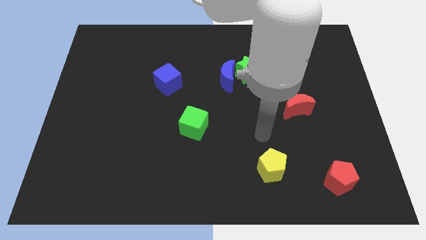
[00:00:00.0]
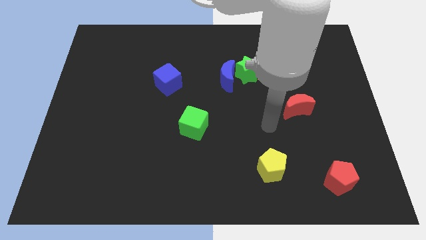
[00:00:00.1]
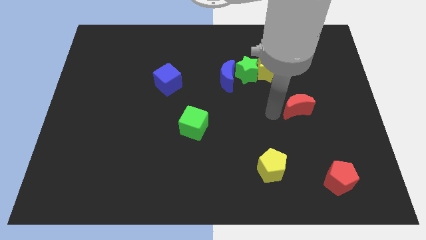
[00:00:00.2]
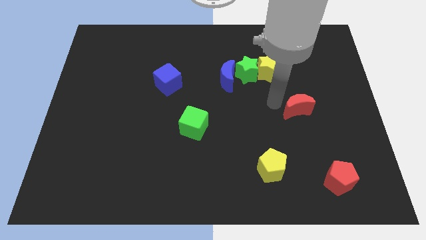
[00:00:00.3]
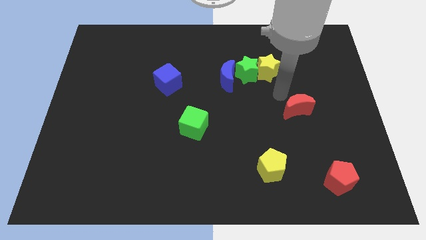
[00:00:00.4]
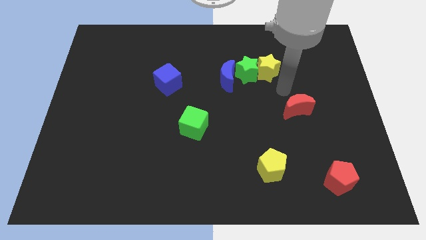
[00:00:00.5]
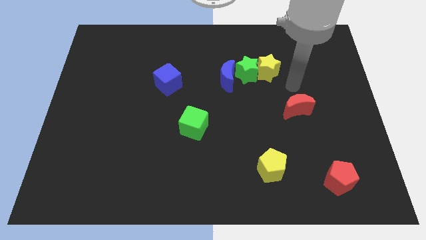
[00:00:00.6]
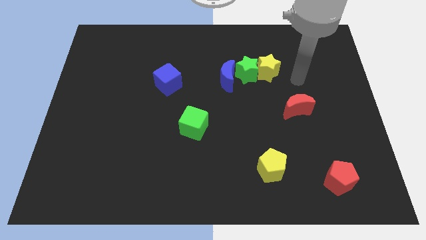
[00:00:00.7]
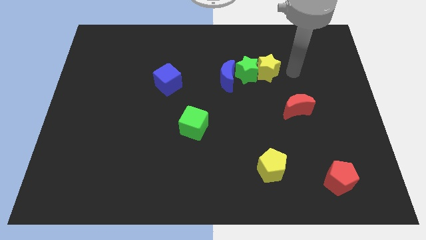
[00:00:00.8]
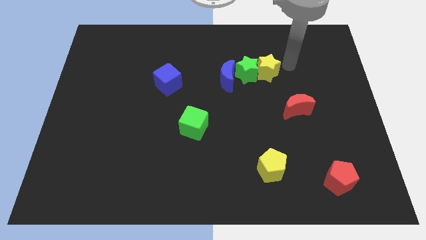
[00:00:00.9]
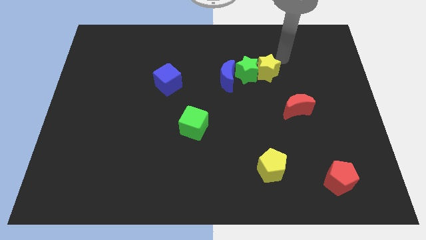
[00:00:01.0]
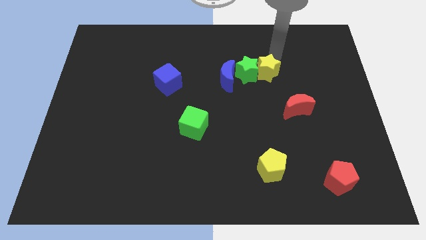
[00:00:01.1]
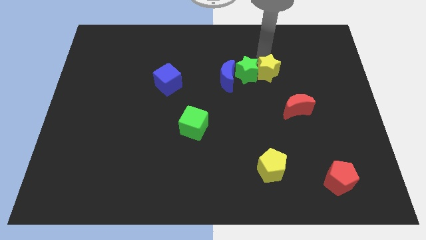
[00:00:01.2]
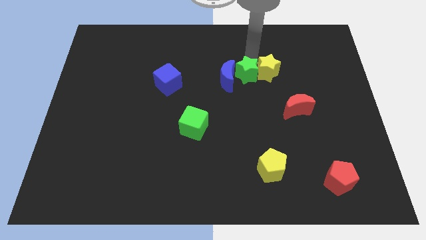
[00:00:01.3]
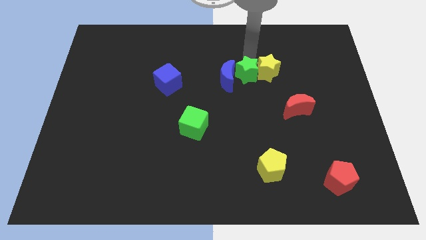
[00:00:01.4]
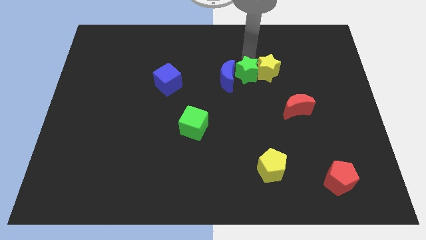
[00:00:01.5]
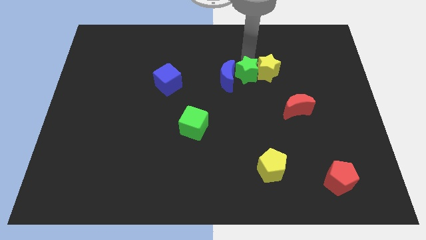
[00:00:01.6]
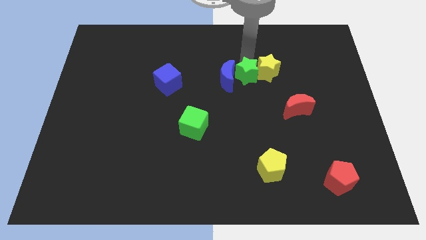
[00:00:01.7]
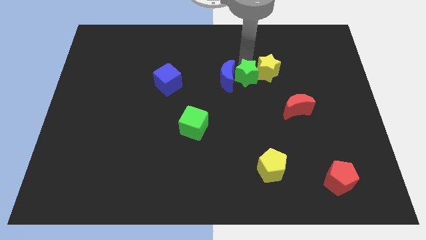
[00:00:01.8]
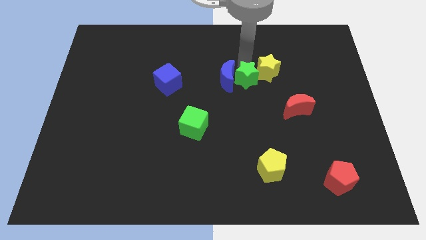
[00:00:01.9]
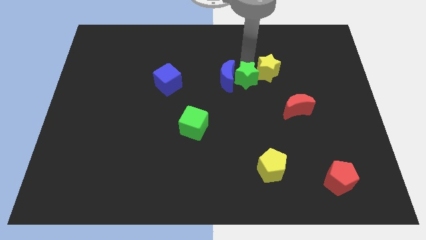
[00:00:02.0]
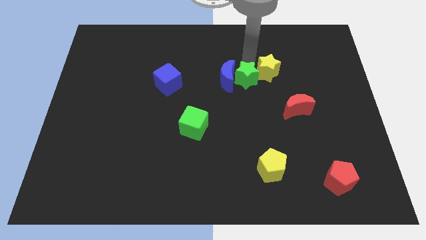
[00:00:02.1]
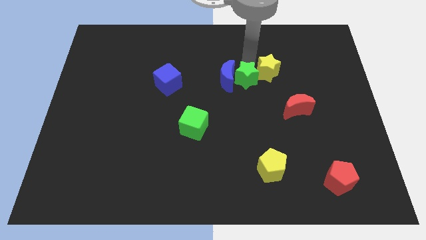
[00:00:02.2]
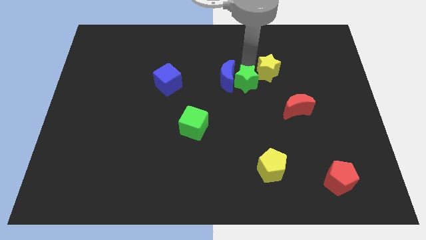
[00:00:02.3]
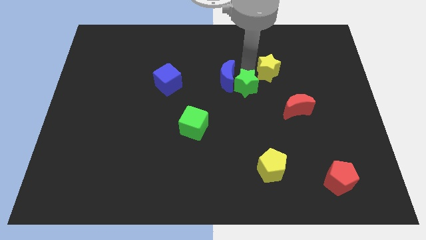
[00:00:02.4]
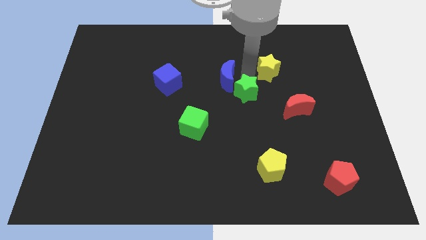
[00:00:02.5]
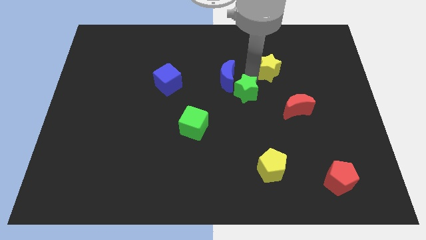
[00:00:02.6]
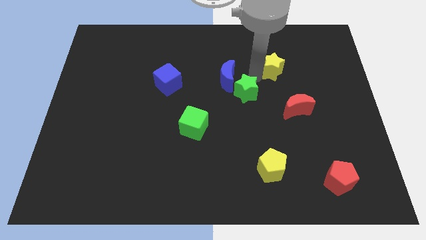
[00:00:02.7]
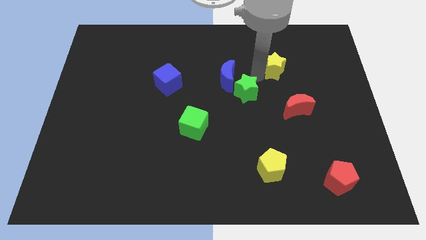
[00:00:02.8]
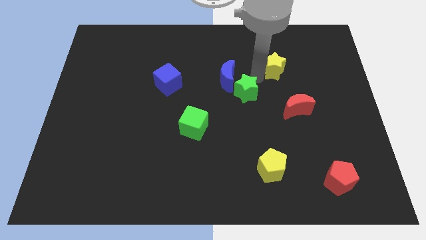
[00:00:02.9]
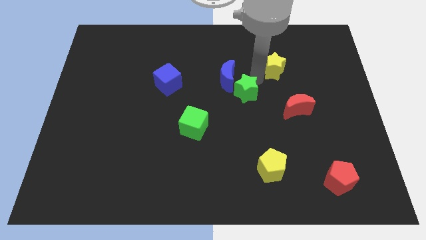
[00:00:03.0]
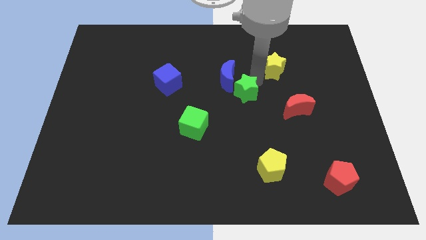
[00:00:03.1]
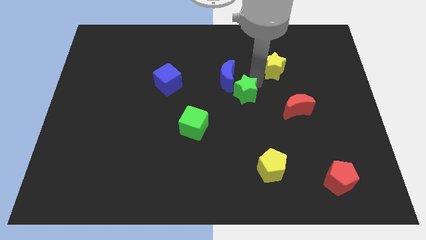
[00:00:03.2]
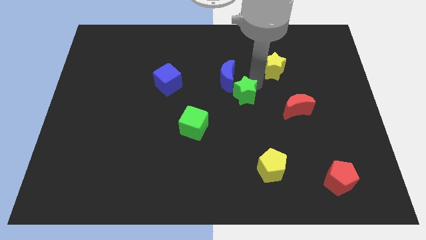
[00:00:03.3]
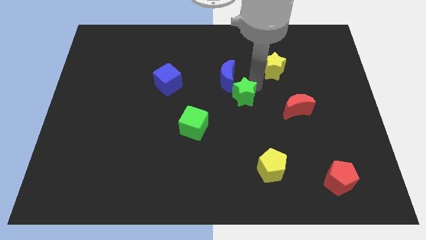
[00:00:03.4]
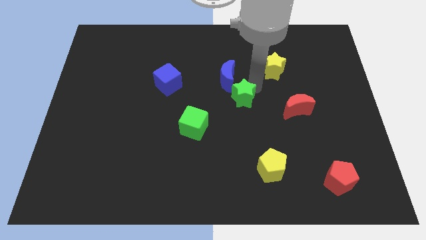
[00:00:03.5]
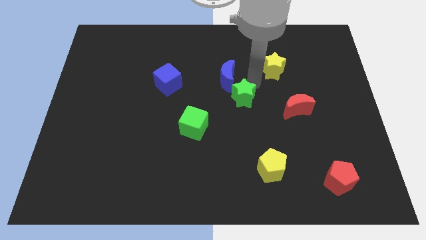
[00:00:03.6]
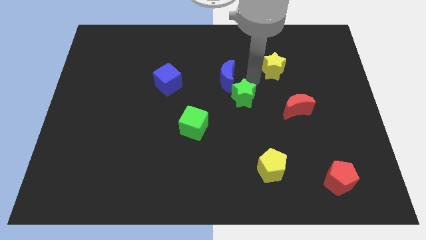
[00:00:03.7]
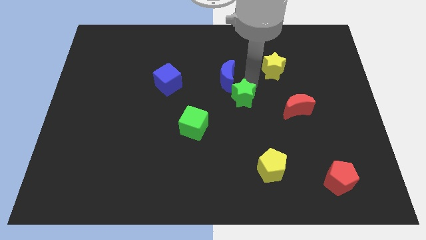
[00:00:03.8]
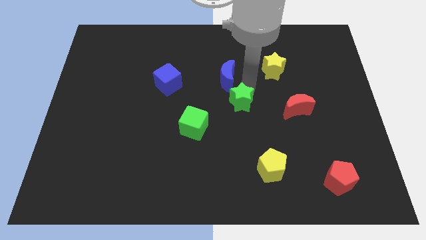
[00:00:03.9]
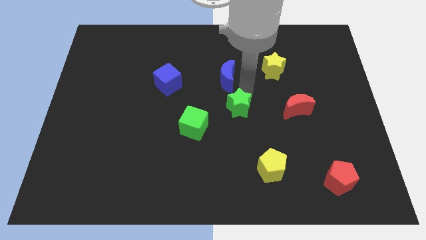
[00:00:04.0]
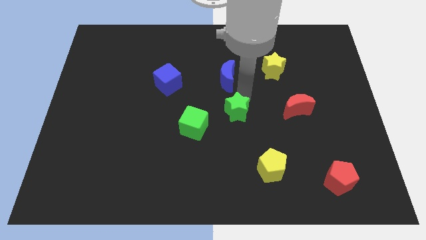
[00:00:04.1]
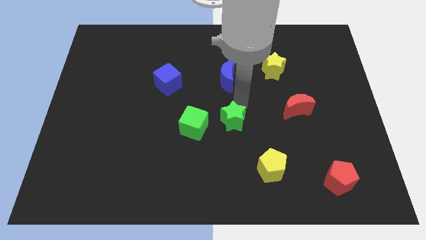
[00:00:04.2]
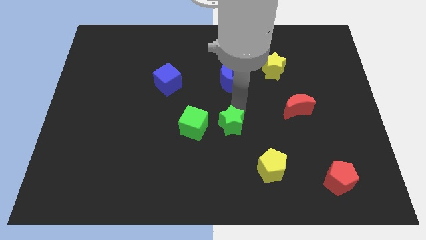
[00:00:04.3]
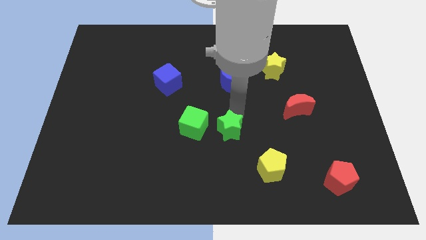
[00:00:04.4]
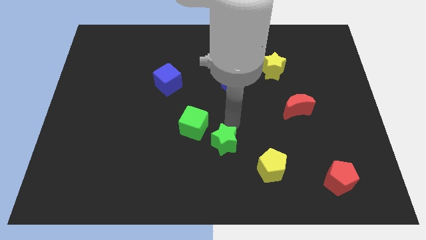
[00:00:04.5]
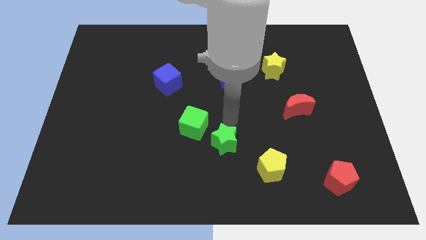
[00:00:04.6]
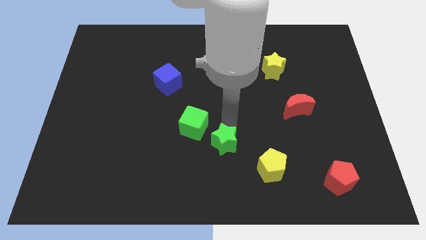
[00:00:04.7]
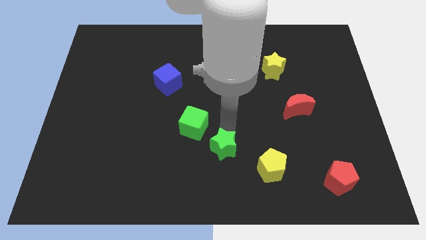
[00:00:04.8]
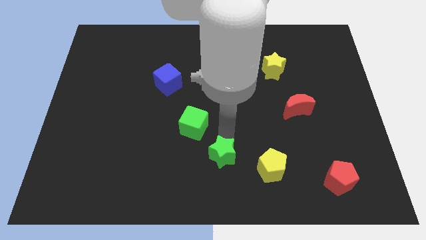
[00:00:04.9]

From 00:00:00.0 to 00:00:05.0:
put the green star to the bottom side

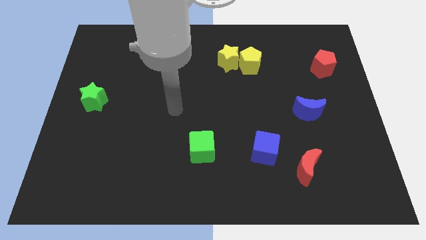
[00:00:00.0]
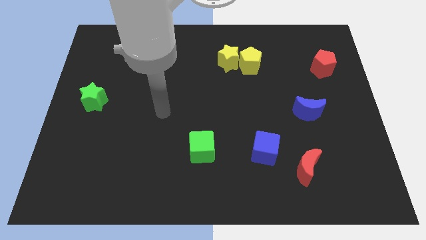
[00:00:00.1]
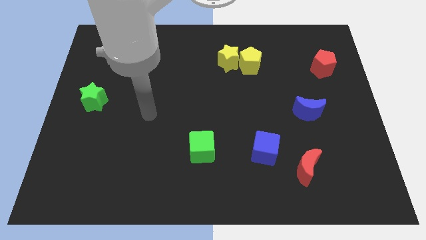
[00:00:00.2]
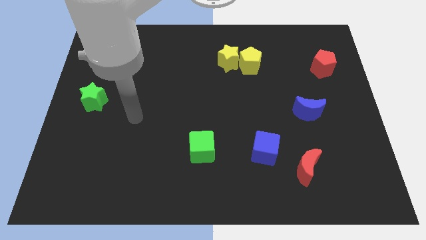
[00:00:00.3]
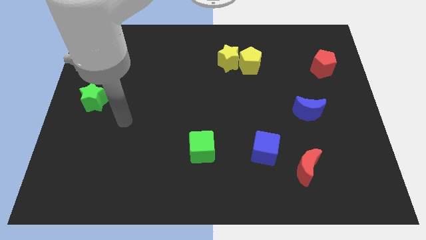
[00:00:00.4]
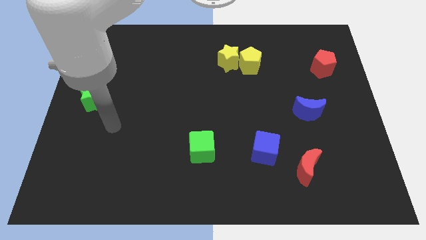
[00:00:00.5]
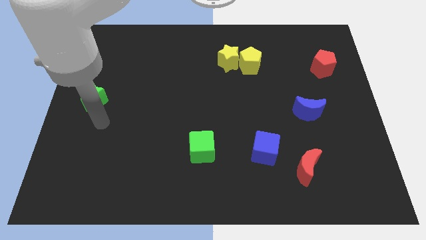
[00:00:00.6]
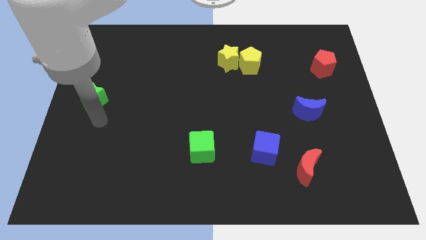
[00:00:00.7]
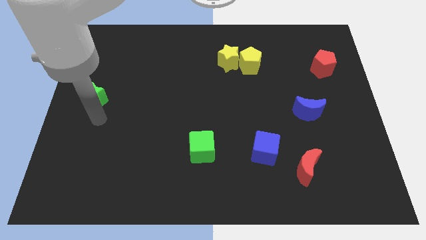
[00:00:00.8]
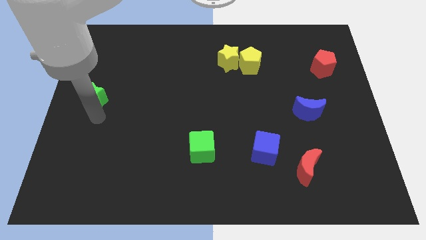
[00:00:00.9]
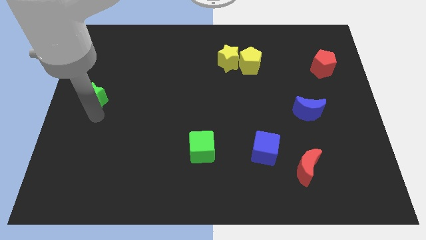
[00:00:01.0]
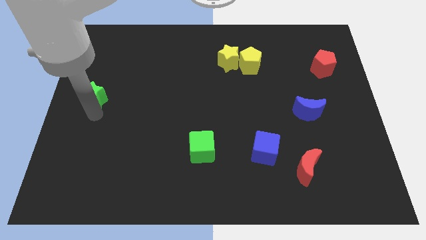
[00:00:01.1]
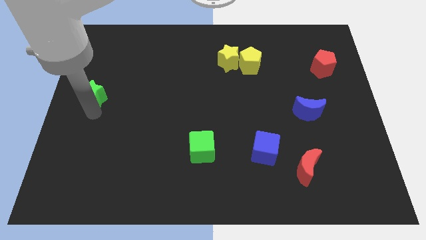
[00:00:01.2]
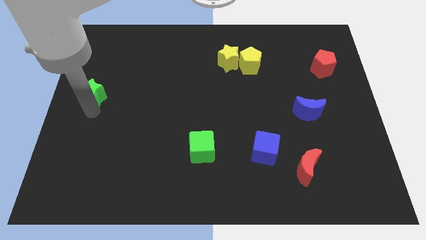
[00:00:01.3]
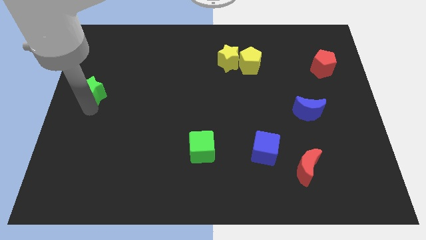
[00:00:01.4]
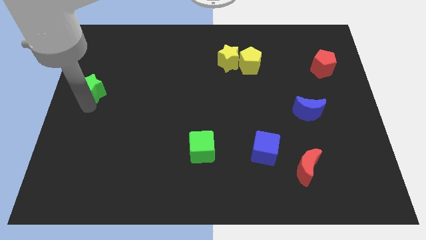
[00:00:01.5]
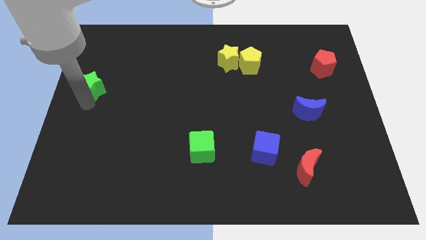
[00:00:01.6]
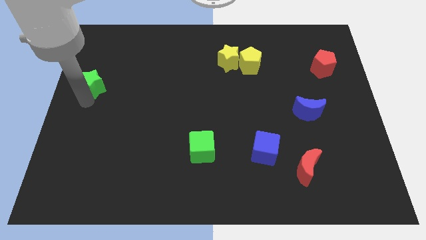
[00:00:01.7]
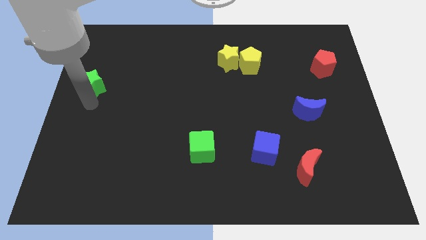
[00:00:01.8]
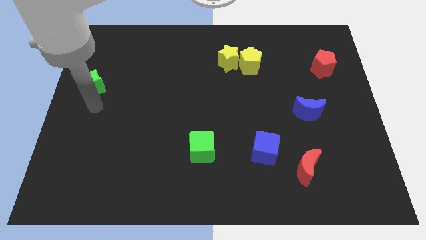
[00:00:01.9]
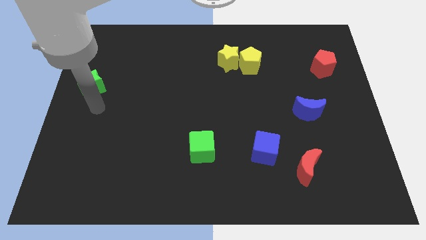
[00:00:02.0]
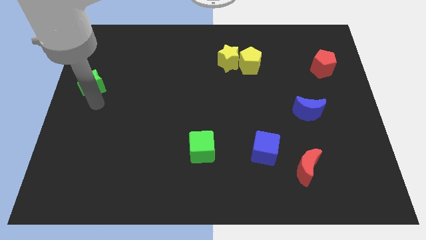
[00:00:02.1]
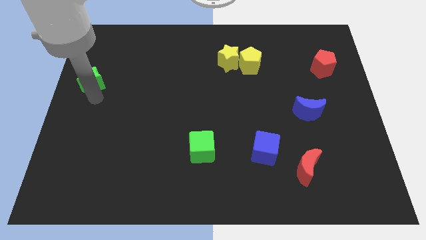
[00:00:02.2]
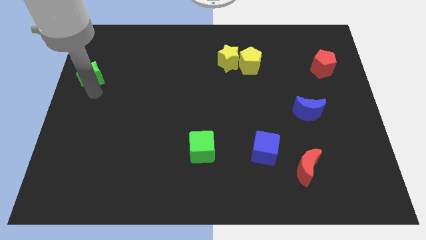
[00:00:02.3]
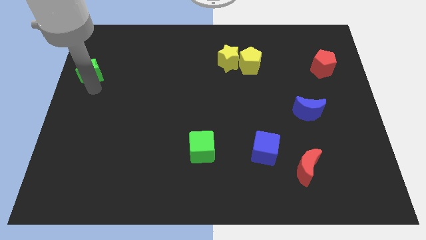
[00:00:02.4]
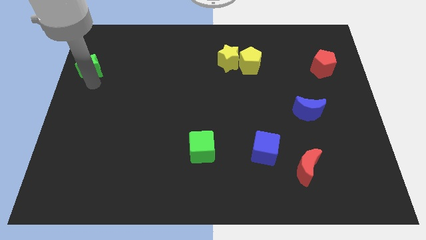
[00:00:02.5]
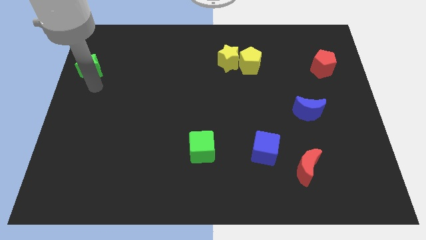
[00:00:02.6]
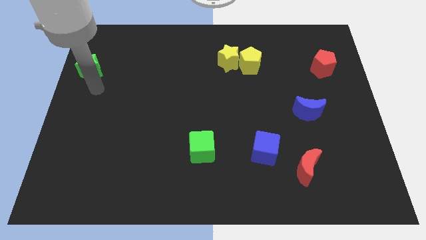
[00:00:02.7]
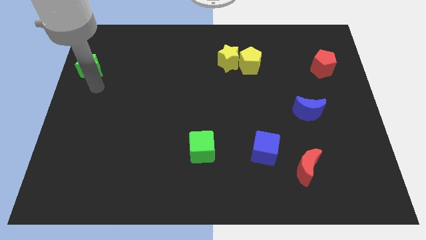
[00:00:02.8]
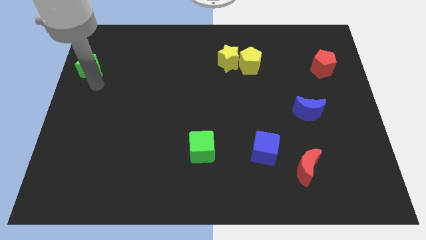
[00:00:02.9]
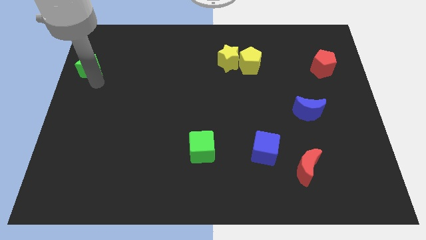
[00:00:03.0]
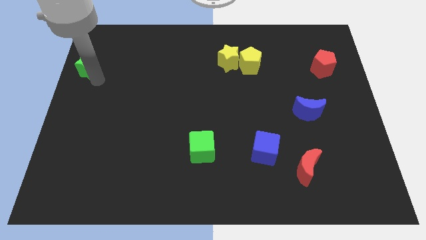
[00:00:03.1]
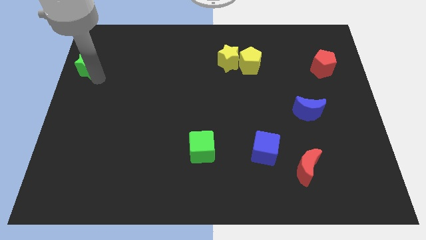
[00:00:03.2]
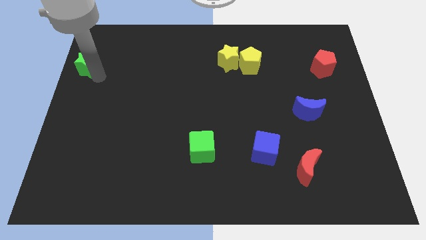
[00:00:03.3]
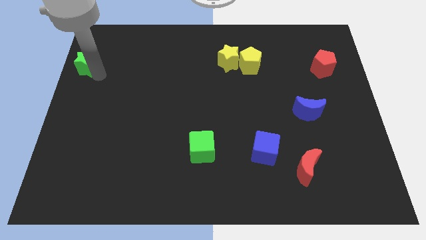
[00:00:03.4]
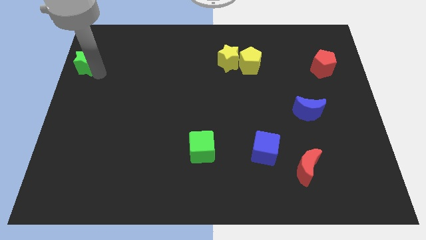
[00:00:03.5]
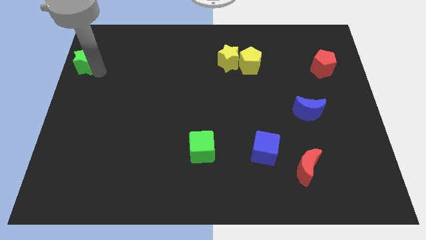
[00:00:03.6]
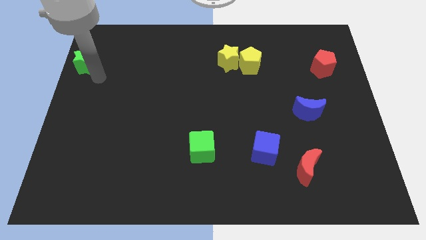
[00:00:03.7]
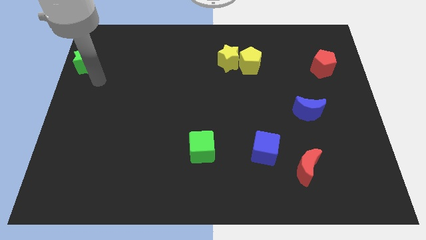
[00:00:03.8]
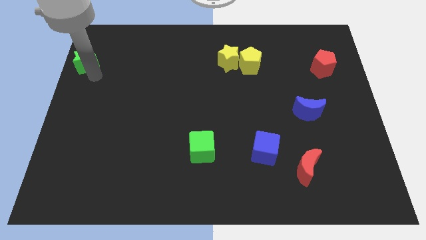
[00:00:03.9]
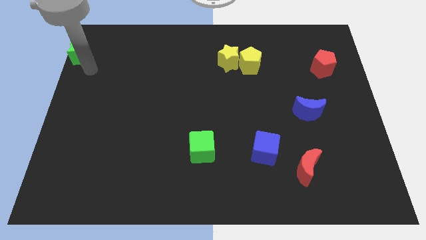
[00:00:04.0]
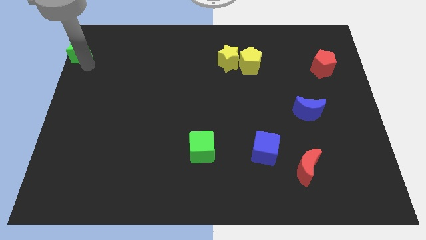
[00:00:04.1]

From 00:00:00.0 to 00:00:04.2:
push the green star to the upper left corner
